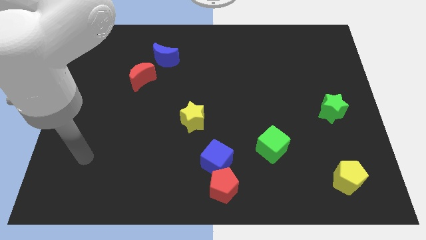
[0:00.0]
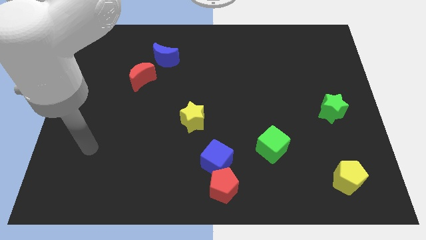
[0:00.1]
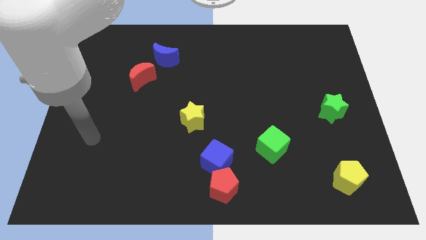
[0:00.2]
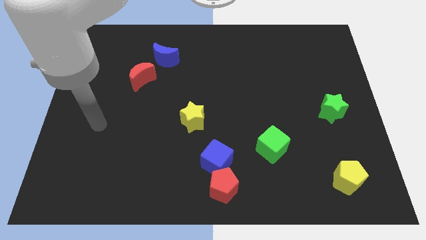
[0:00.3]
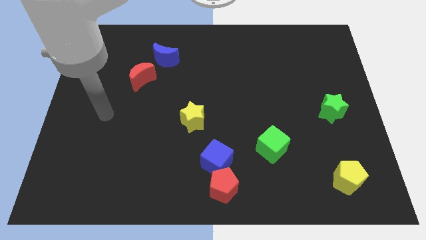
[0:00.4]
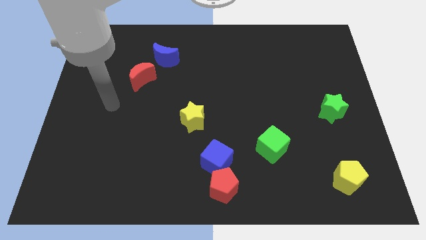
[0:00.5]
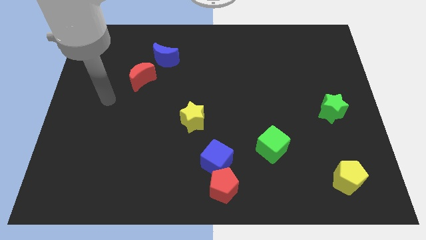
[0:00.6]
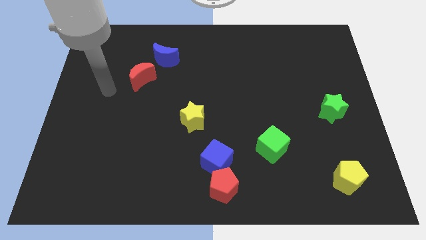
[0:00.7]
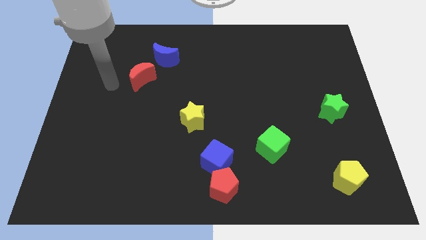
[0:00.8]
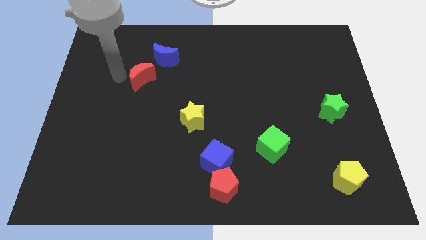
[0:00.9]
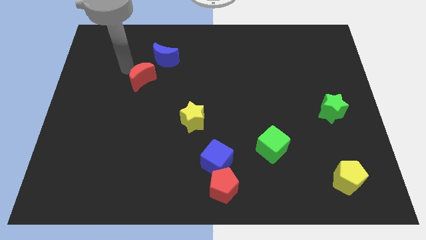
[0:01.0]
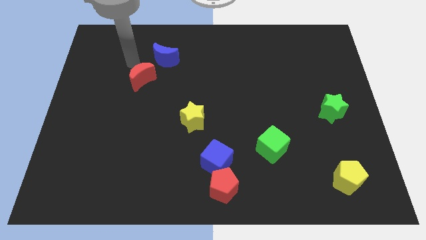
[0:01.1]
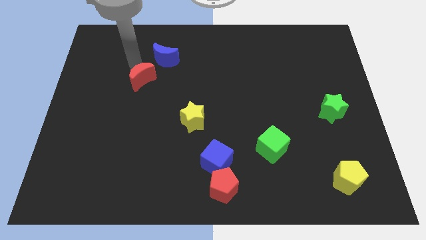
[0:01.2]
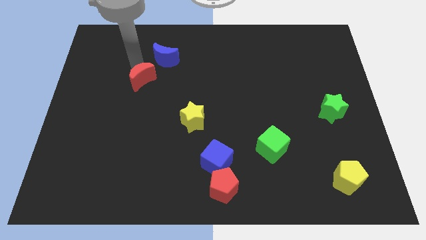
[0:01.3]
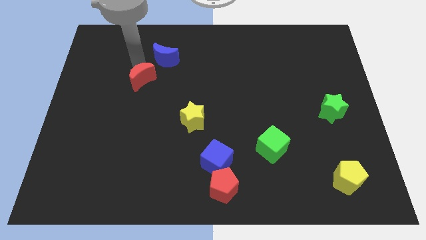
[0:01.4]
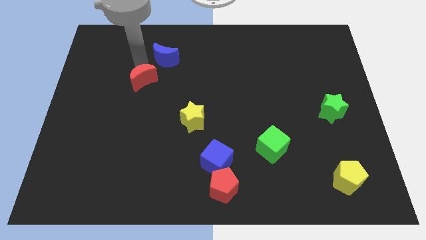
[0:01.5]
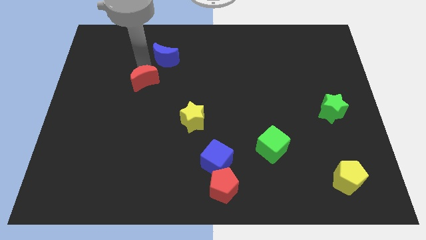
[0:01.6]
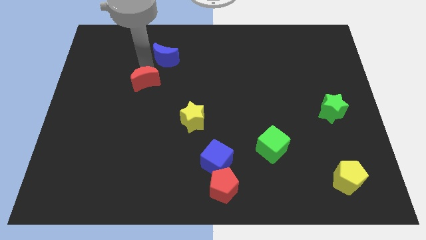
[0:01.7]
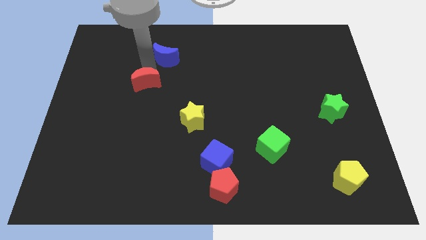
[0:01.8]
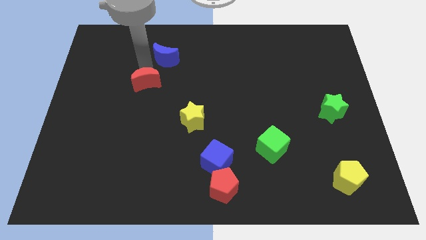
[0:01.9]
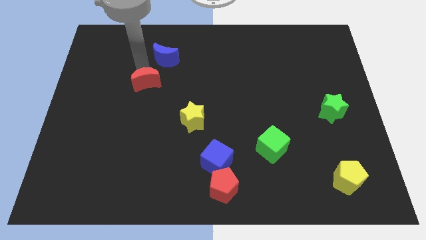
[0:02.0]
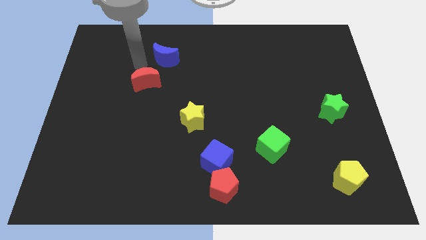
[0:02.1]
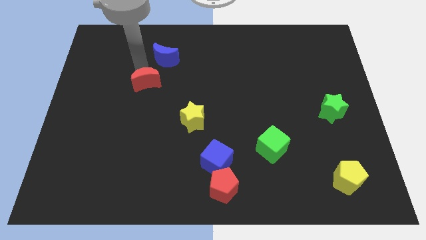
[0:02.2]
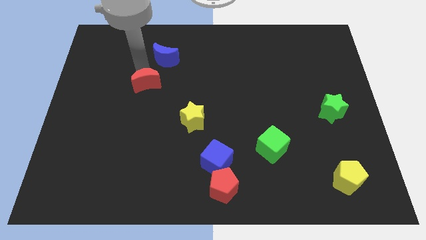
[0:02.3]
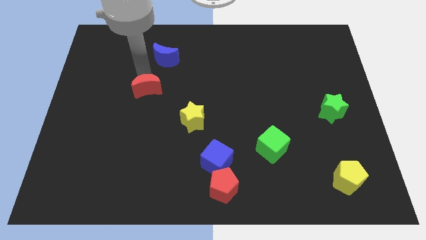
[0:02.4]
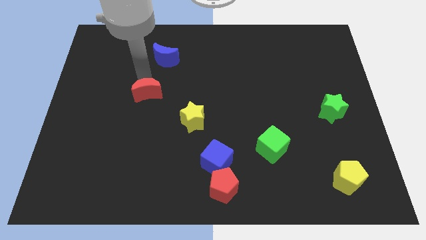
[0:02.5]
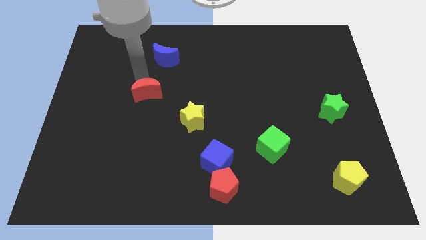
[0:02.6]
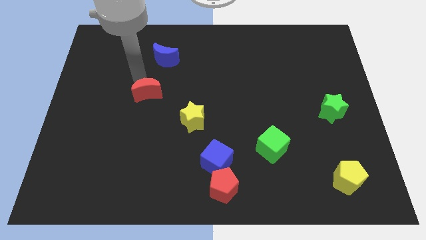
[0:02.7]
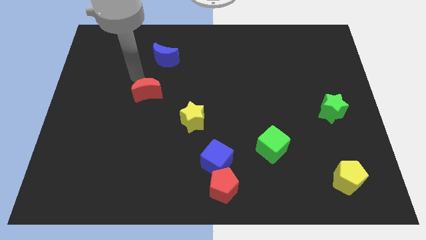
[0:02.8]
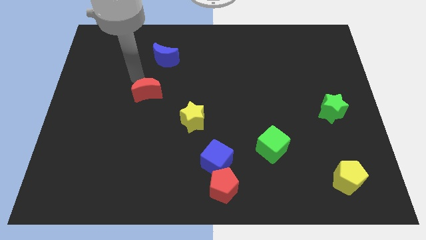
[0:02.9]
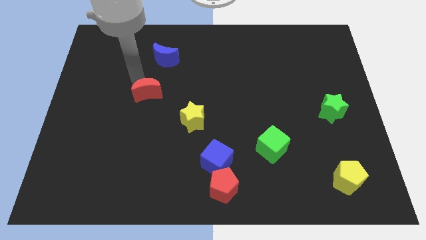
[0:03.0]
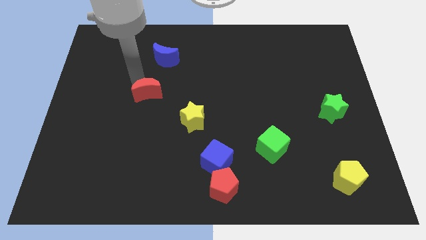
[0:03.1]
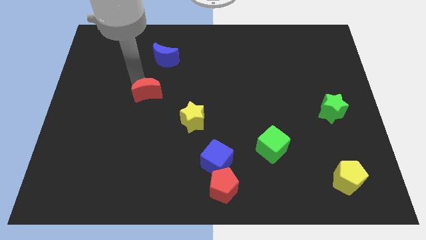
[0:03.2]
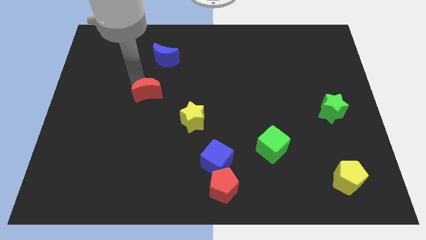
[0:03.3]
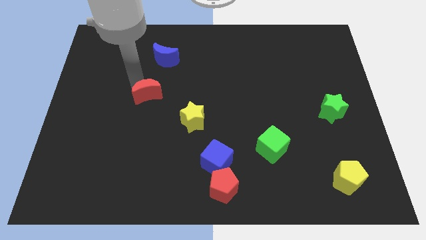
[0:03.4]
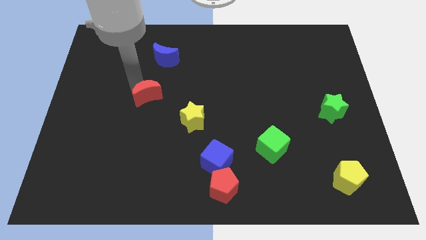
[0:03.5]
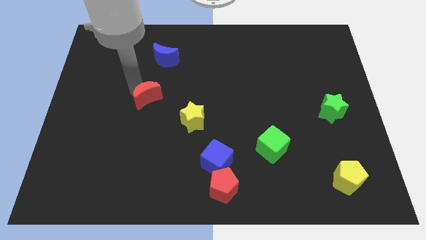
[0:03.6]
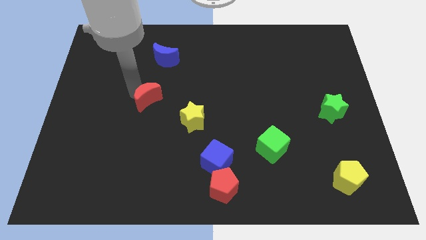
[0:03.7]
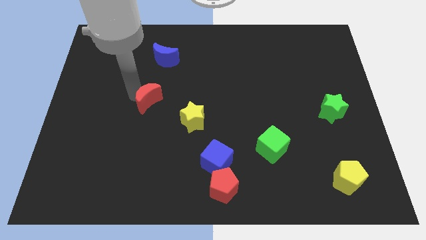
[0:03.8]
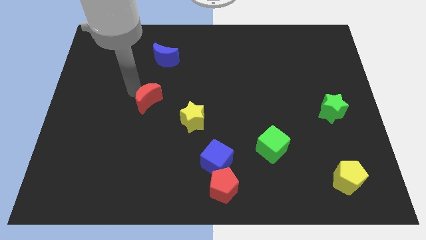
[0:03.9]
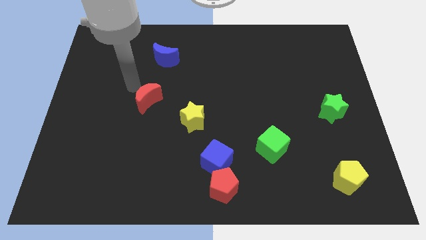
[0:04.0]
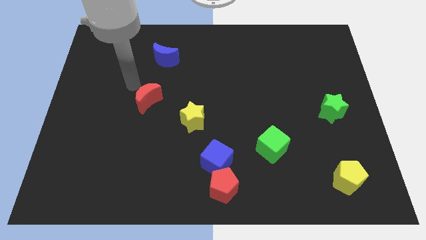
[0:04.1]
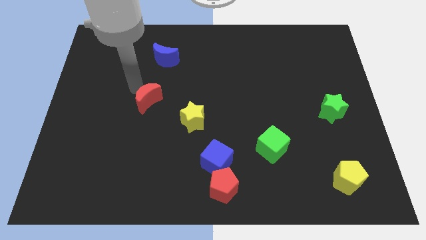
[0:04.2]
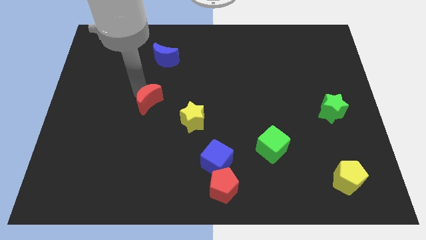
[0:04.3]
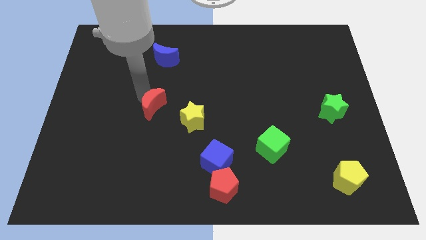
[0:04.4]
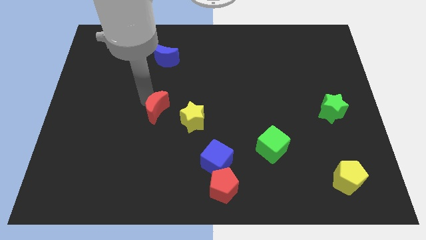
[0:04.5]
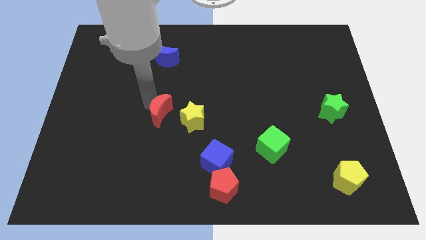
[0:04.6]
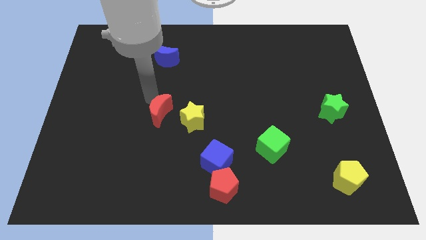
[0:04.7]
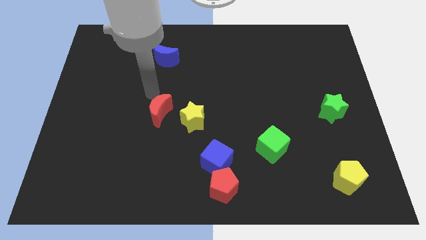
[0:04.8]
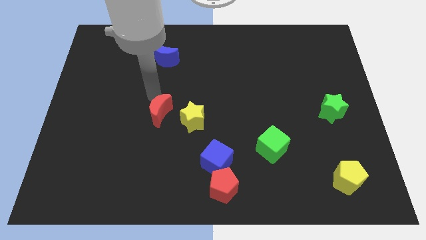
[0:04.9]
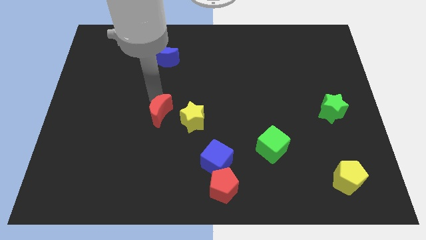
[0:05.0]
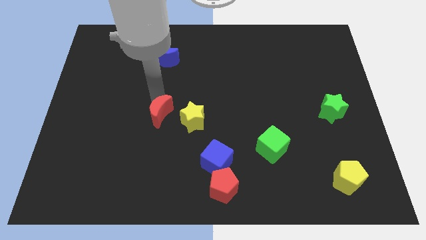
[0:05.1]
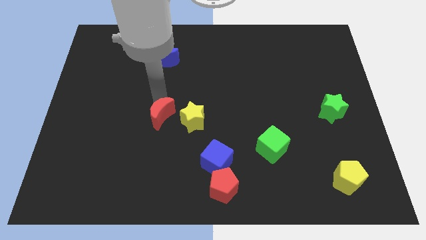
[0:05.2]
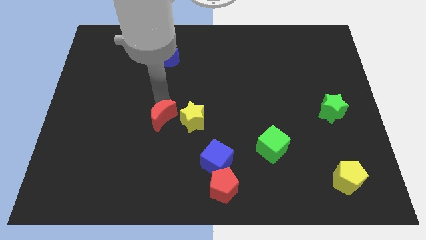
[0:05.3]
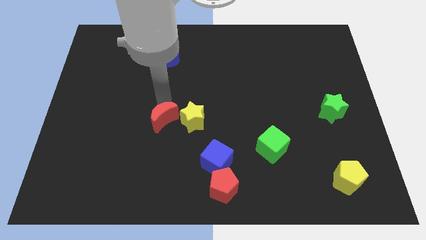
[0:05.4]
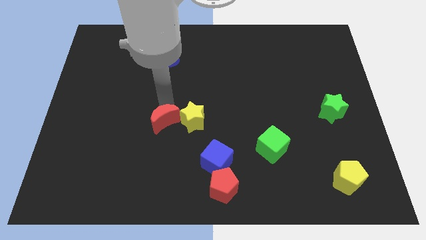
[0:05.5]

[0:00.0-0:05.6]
slide the red moon to the bottom left of the yellow star

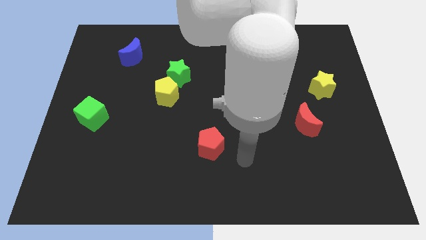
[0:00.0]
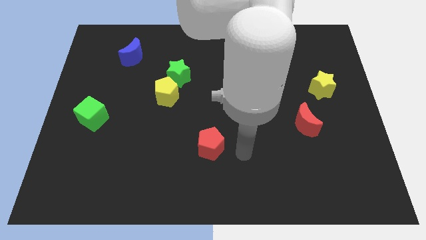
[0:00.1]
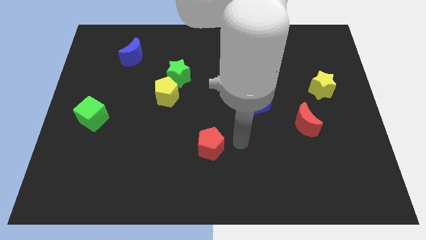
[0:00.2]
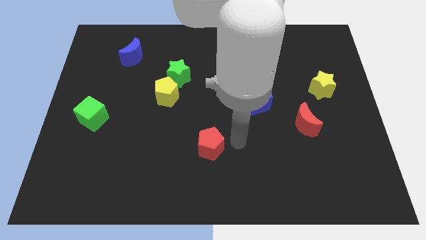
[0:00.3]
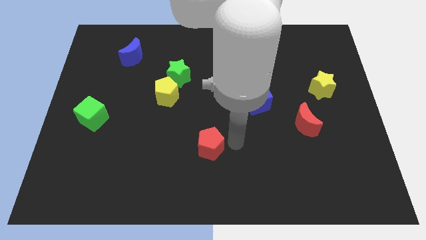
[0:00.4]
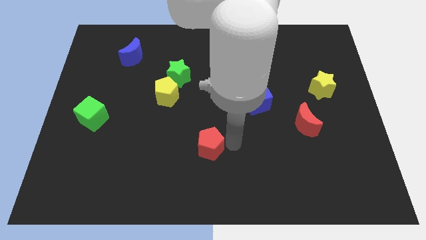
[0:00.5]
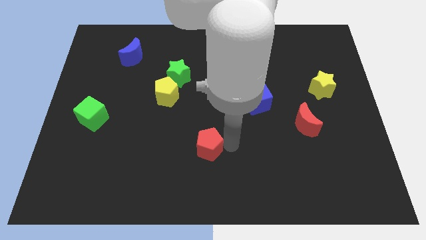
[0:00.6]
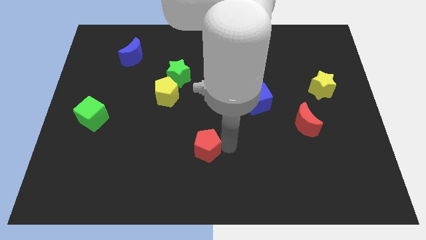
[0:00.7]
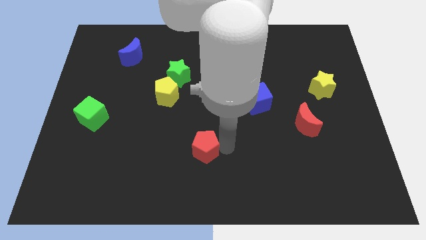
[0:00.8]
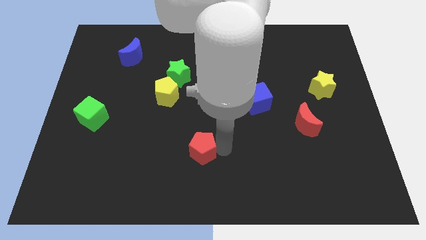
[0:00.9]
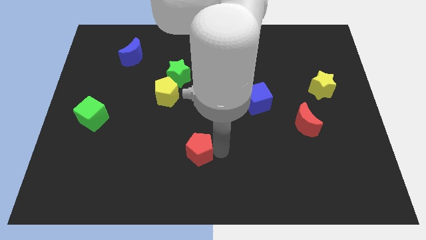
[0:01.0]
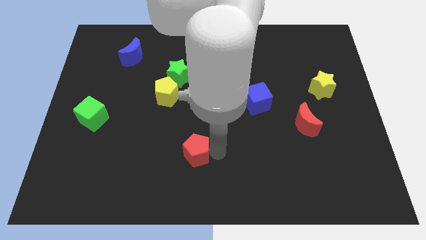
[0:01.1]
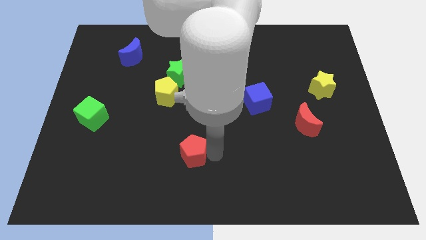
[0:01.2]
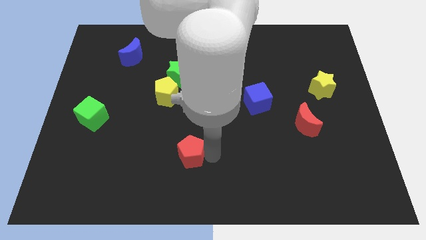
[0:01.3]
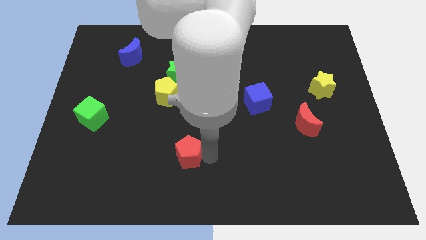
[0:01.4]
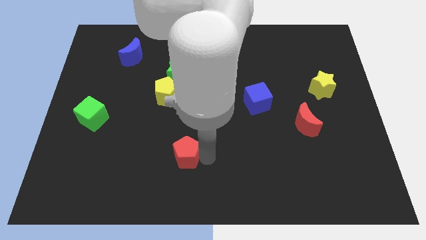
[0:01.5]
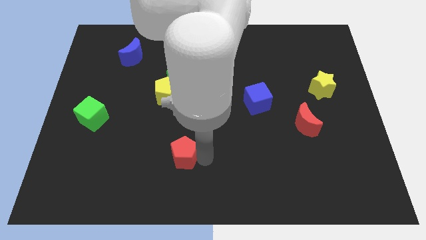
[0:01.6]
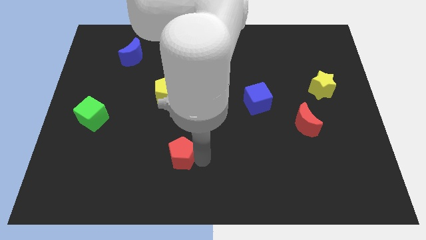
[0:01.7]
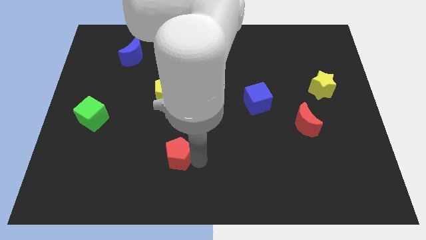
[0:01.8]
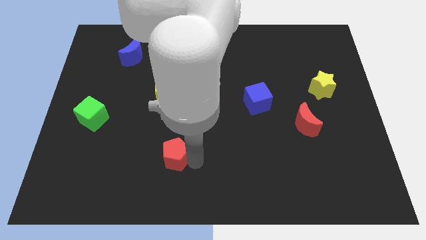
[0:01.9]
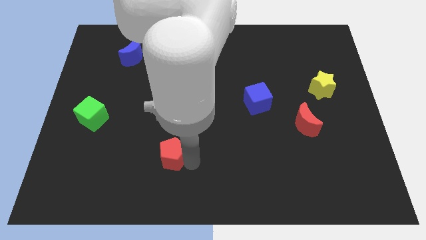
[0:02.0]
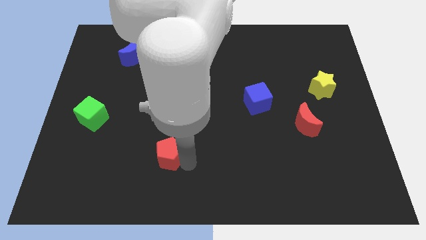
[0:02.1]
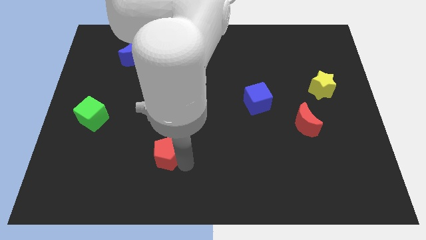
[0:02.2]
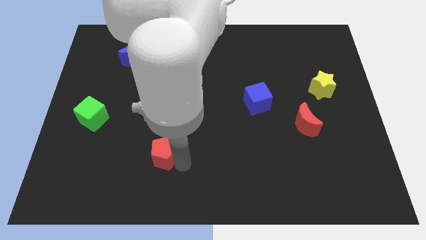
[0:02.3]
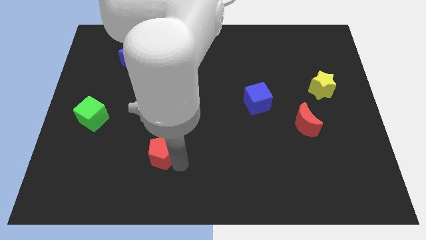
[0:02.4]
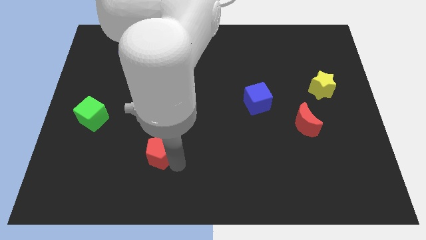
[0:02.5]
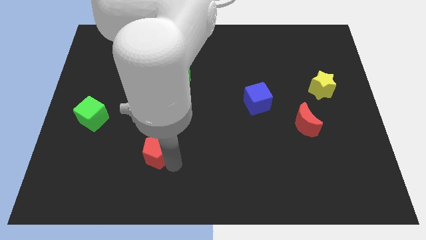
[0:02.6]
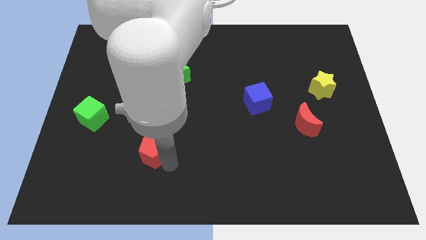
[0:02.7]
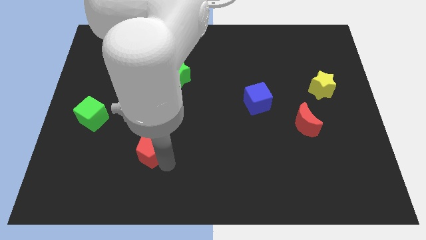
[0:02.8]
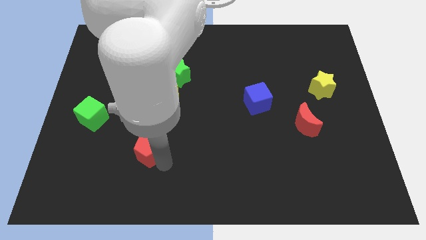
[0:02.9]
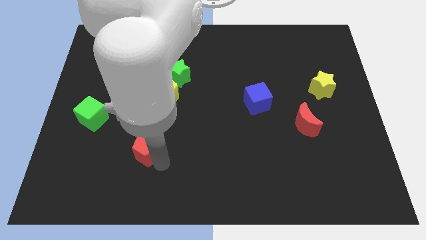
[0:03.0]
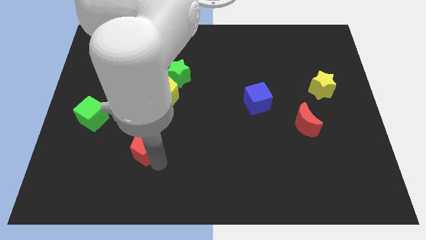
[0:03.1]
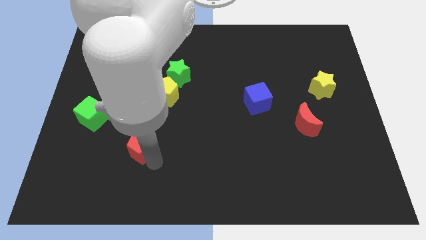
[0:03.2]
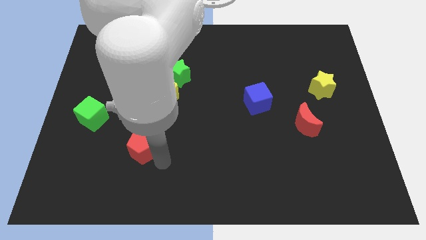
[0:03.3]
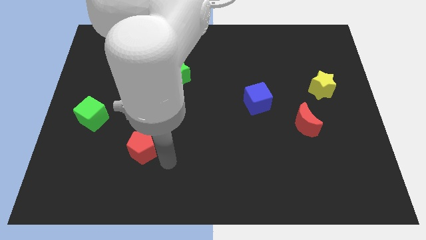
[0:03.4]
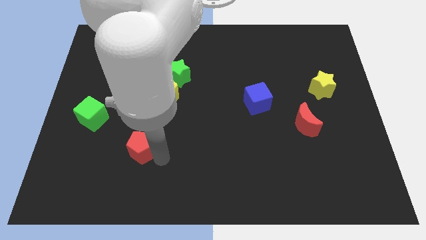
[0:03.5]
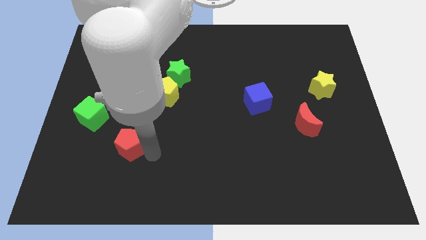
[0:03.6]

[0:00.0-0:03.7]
slide the red pentagon to the bottom right of the green cube
